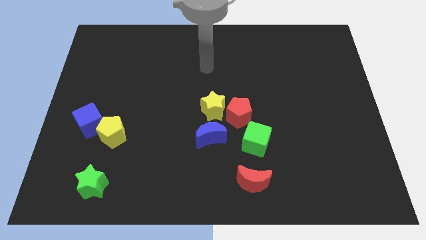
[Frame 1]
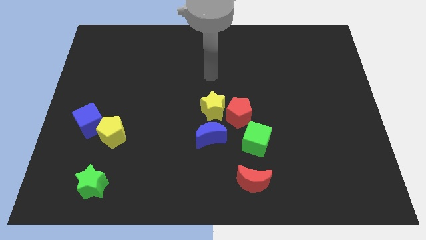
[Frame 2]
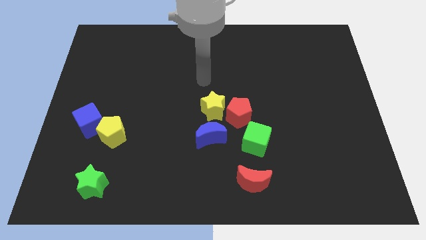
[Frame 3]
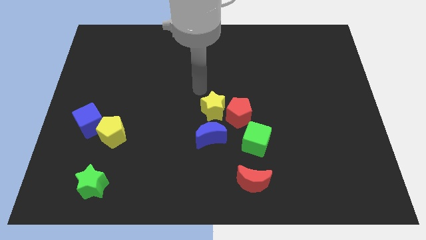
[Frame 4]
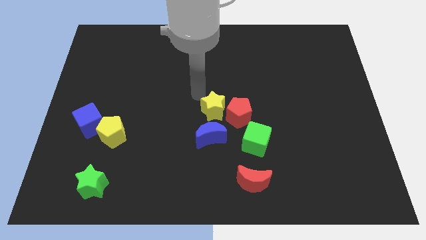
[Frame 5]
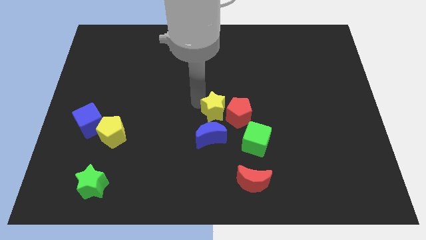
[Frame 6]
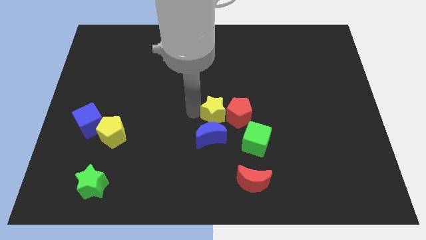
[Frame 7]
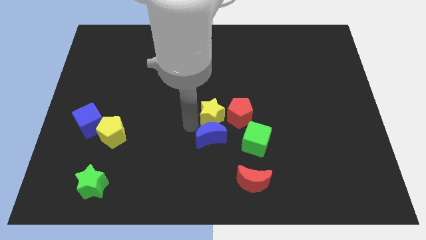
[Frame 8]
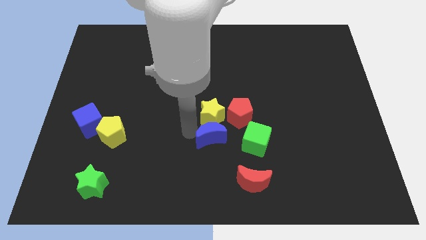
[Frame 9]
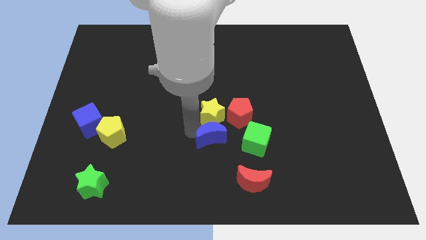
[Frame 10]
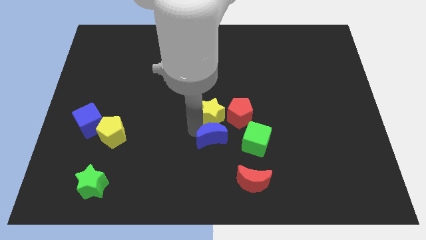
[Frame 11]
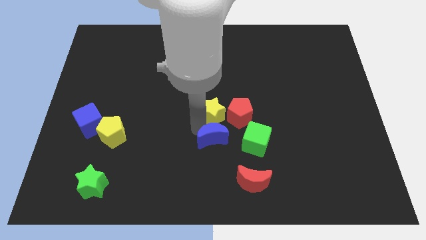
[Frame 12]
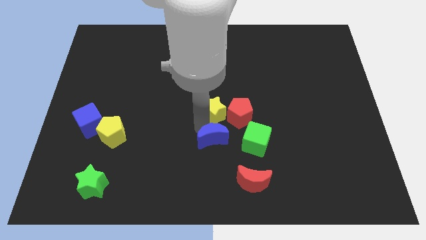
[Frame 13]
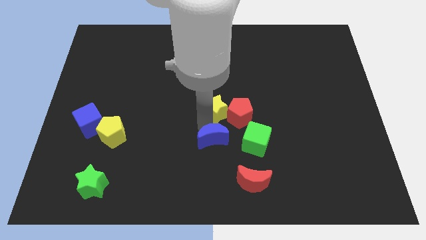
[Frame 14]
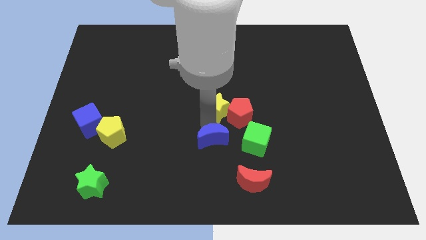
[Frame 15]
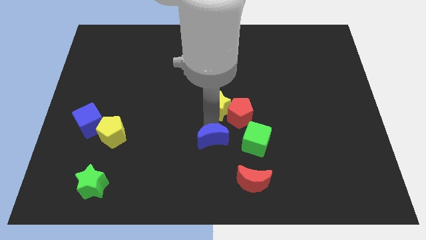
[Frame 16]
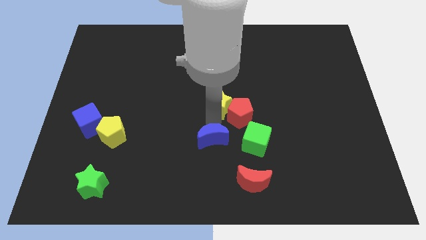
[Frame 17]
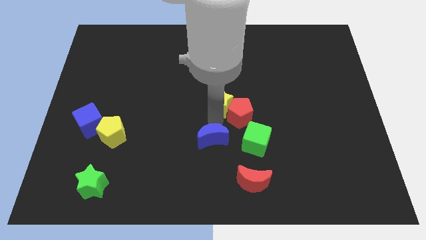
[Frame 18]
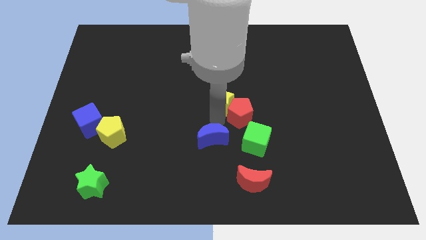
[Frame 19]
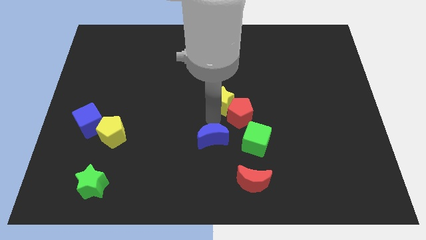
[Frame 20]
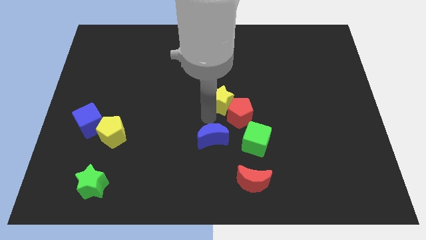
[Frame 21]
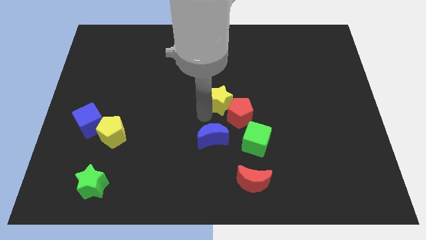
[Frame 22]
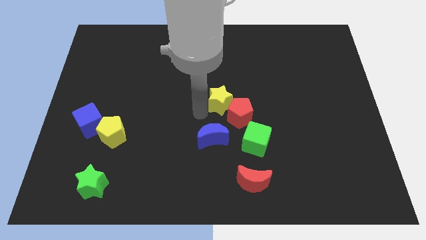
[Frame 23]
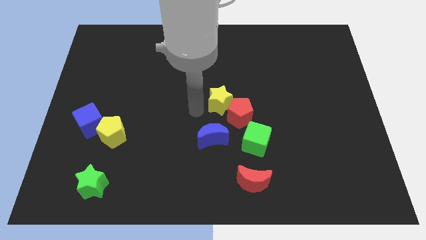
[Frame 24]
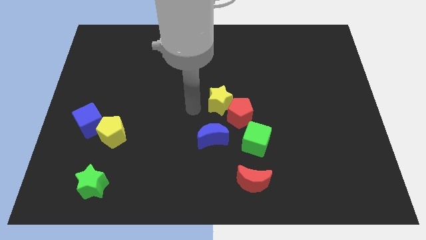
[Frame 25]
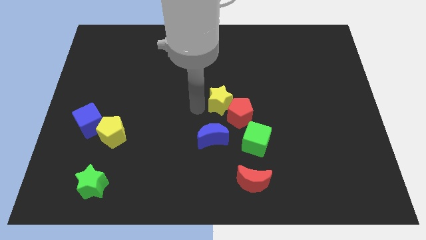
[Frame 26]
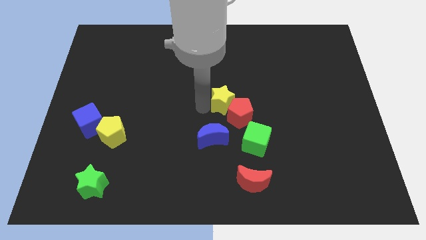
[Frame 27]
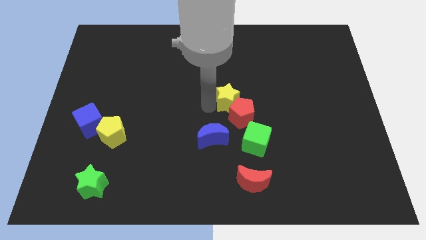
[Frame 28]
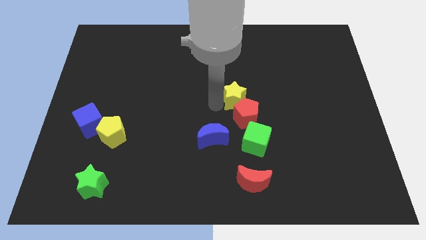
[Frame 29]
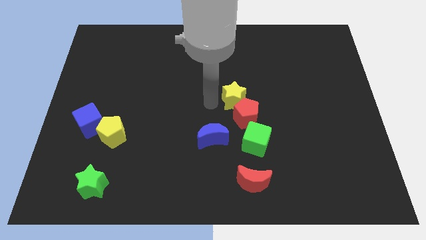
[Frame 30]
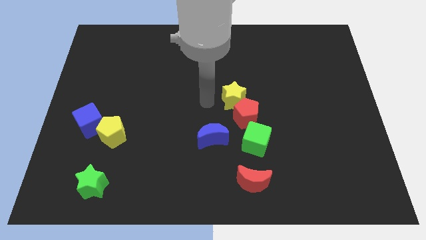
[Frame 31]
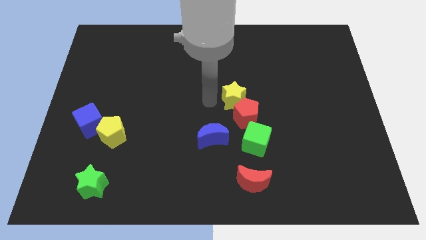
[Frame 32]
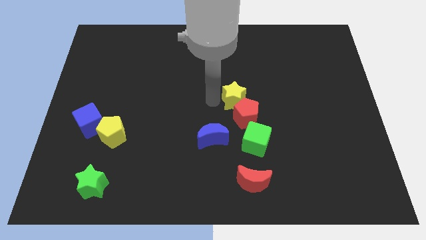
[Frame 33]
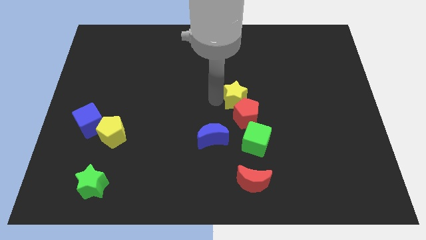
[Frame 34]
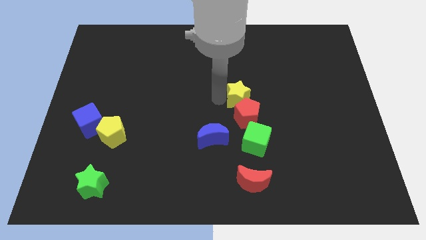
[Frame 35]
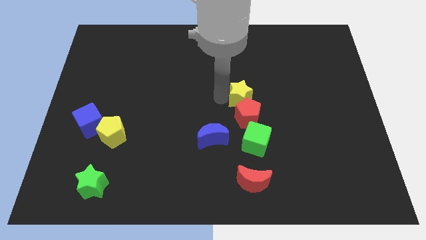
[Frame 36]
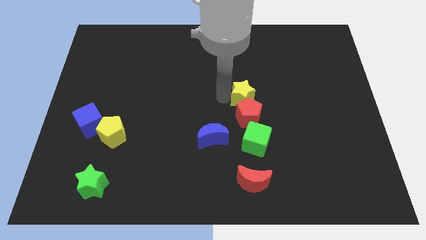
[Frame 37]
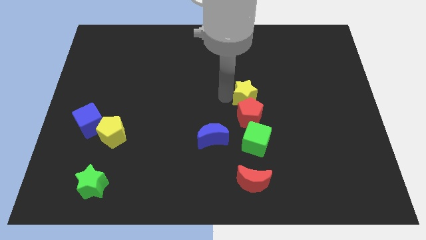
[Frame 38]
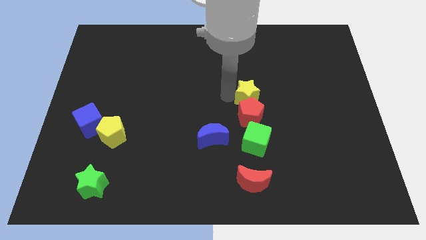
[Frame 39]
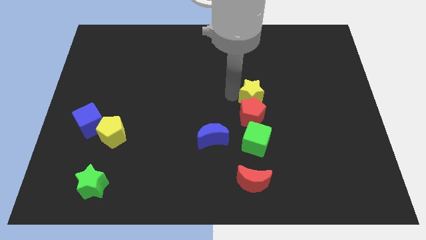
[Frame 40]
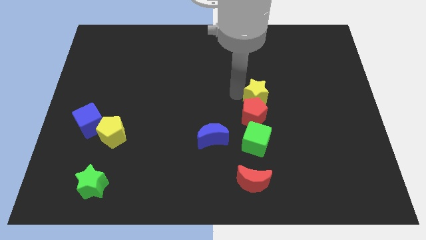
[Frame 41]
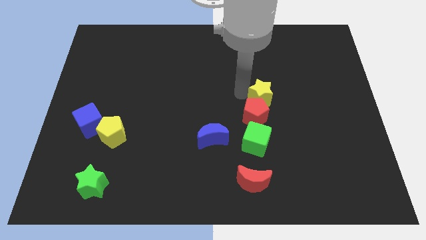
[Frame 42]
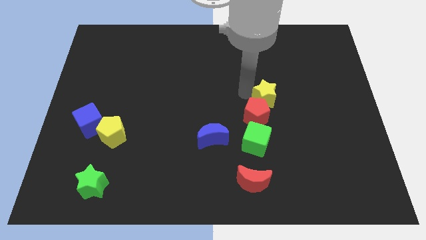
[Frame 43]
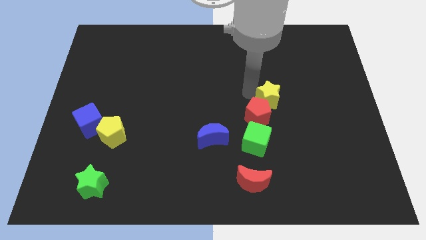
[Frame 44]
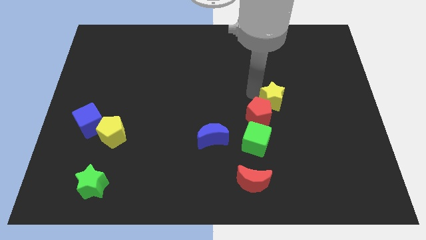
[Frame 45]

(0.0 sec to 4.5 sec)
put the yellow star just right of the red pentagon

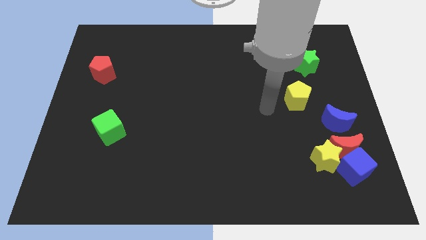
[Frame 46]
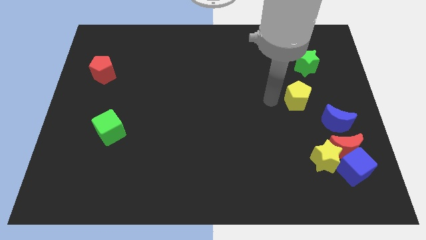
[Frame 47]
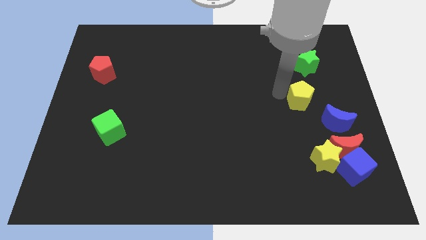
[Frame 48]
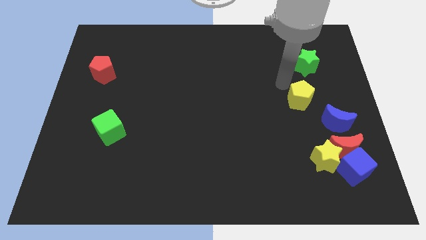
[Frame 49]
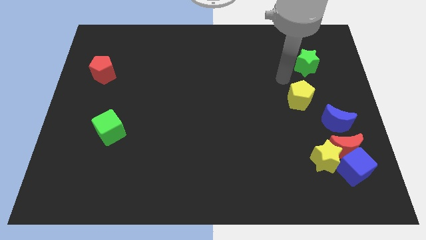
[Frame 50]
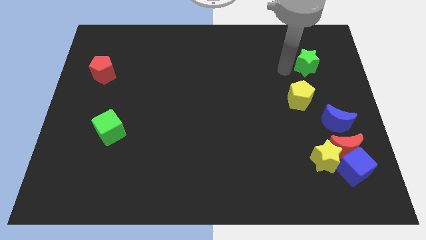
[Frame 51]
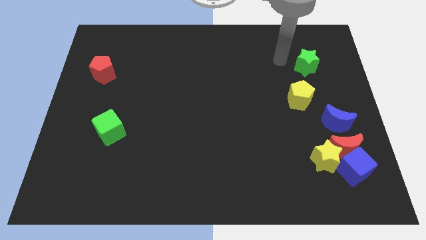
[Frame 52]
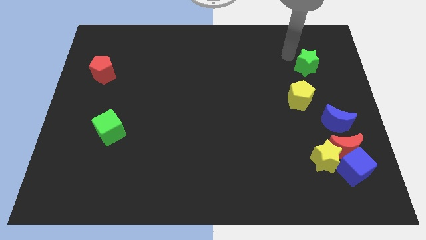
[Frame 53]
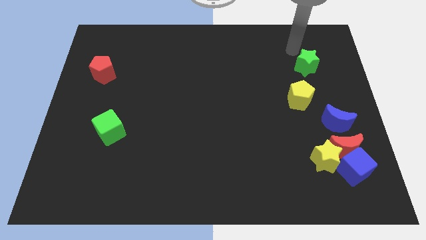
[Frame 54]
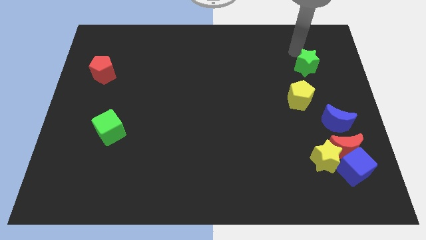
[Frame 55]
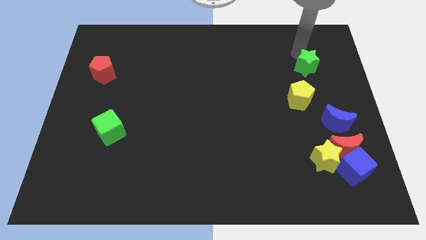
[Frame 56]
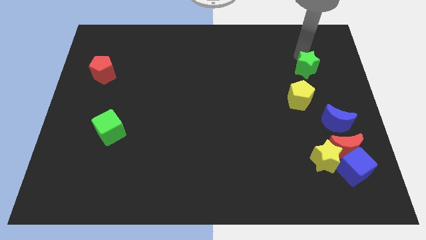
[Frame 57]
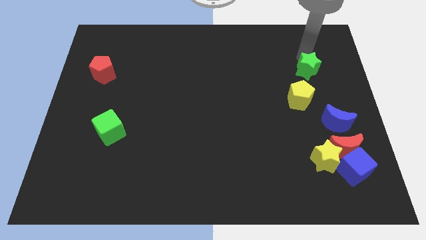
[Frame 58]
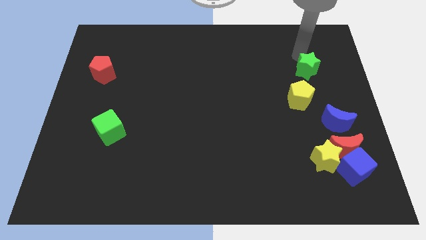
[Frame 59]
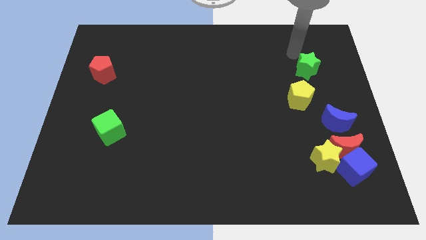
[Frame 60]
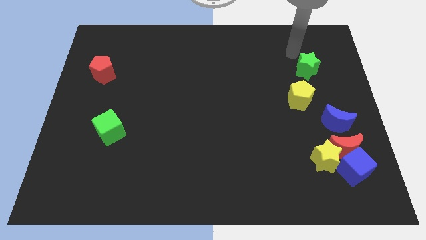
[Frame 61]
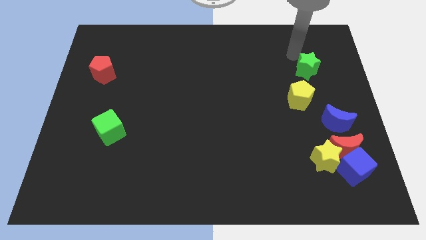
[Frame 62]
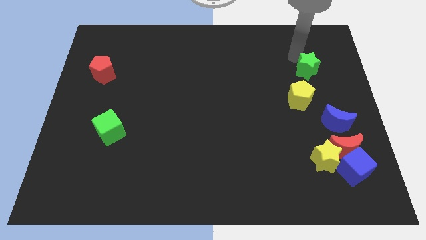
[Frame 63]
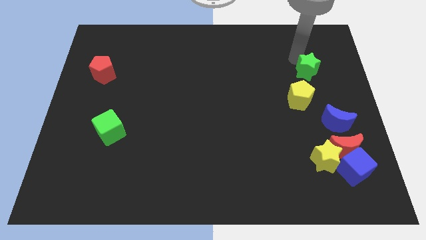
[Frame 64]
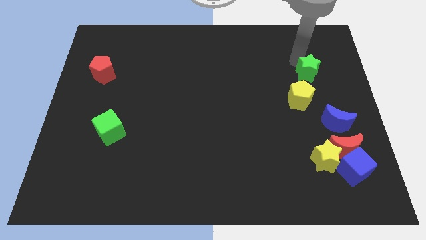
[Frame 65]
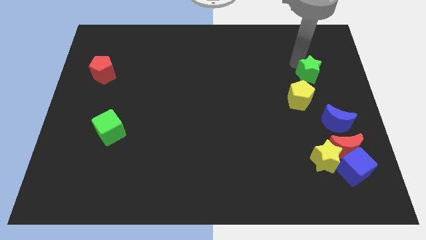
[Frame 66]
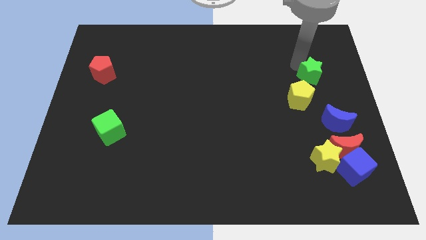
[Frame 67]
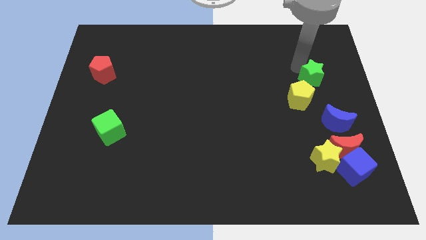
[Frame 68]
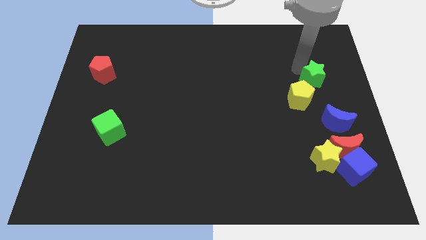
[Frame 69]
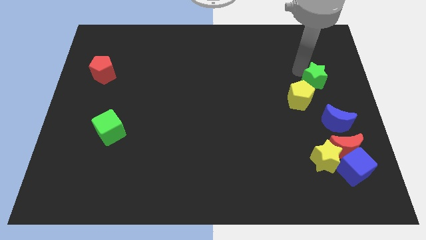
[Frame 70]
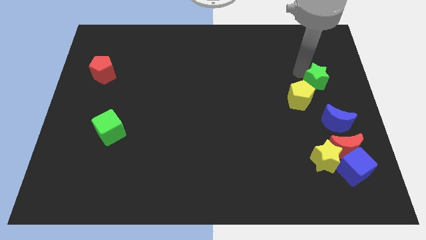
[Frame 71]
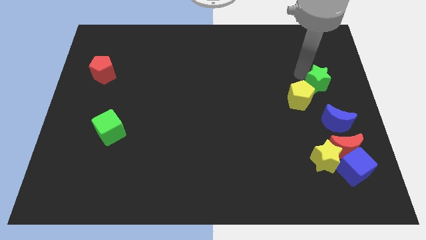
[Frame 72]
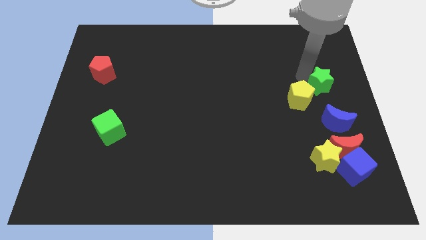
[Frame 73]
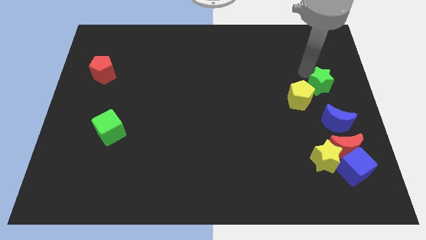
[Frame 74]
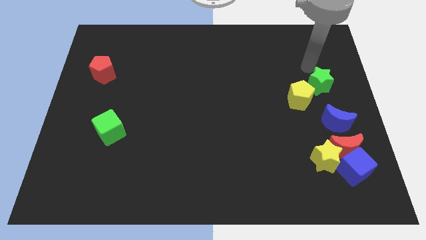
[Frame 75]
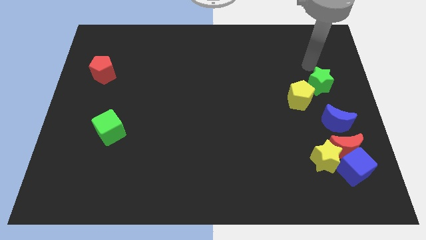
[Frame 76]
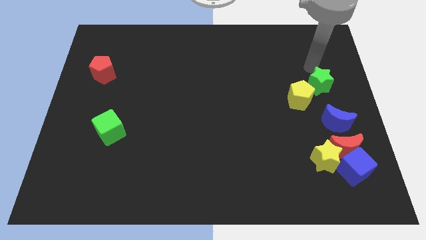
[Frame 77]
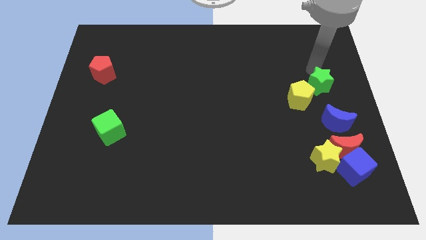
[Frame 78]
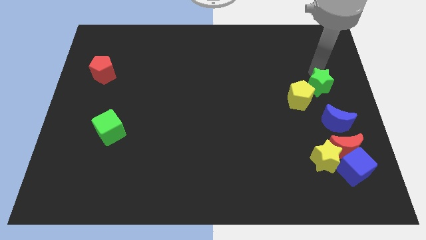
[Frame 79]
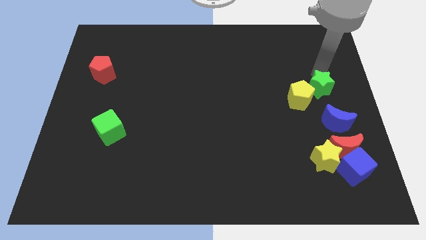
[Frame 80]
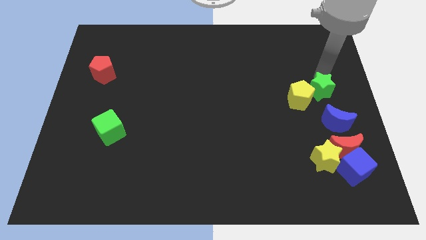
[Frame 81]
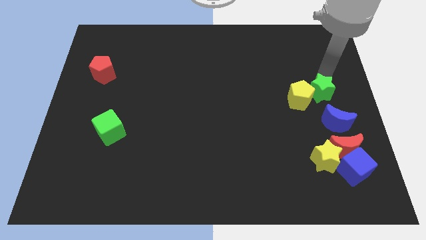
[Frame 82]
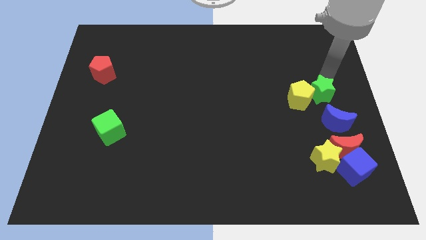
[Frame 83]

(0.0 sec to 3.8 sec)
put the green star above the red moon
